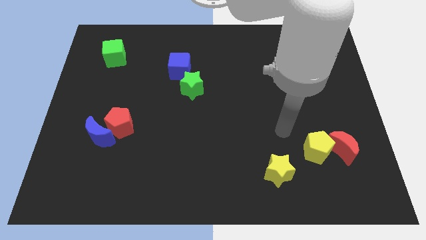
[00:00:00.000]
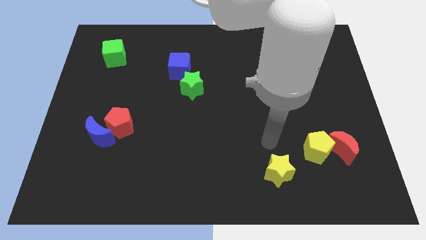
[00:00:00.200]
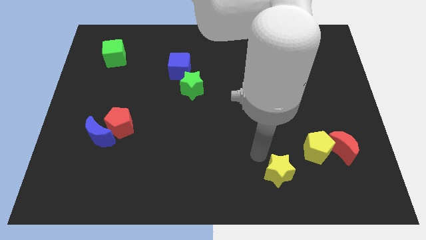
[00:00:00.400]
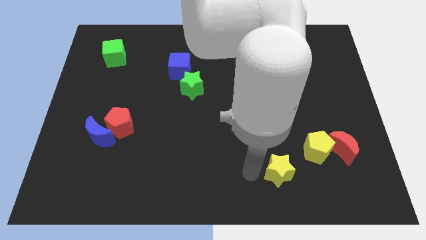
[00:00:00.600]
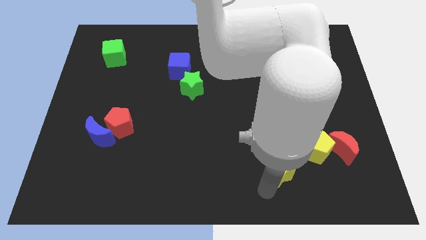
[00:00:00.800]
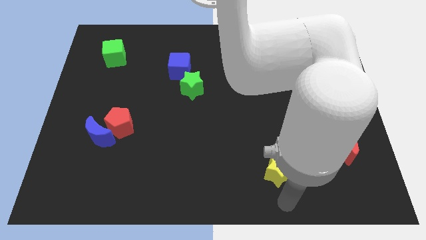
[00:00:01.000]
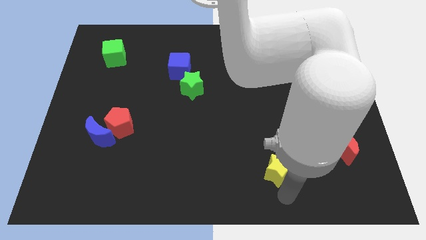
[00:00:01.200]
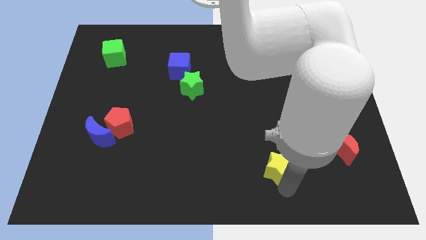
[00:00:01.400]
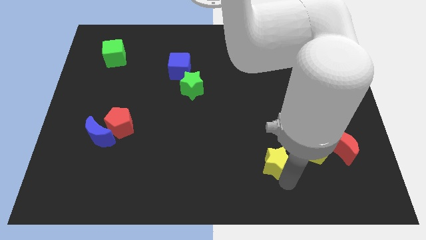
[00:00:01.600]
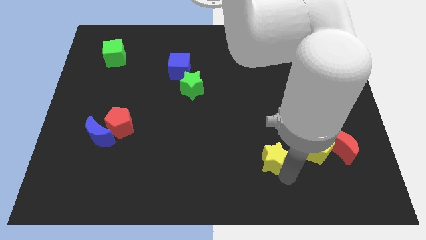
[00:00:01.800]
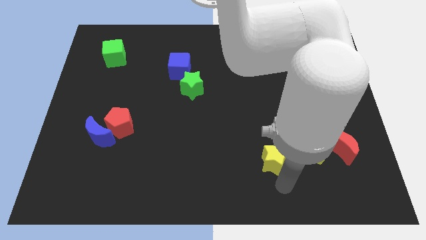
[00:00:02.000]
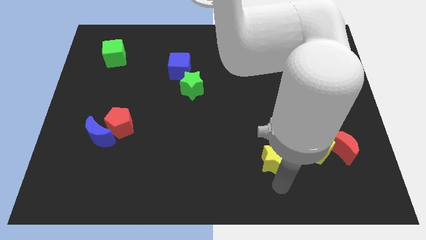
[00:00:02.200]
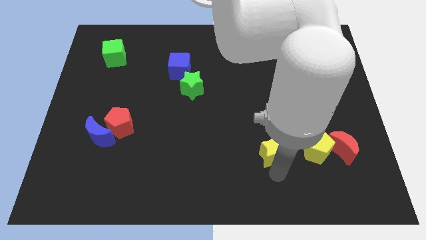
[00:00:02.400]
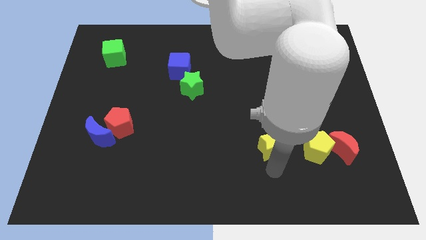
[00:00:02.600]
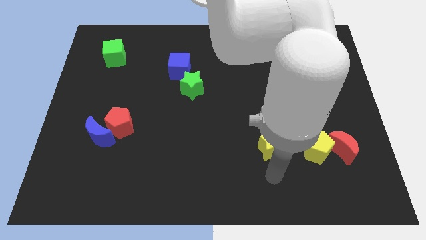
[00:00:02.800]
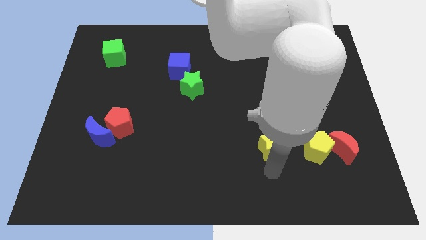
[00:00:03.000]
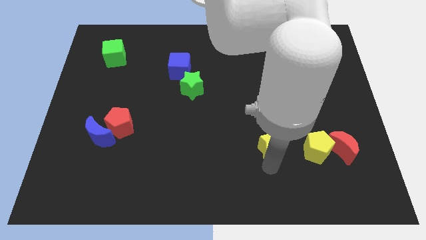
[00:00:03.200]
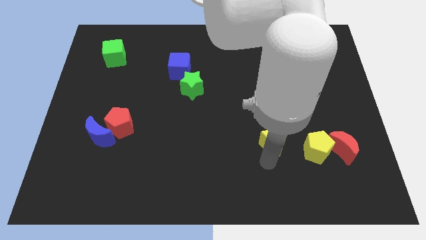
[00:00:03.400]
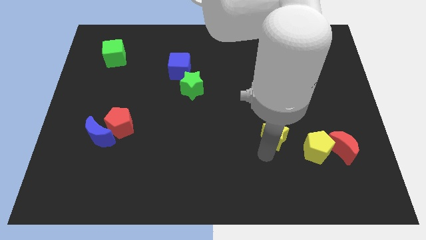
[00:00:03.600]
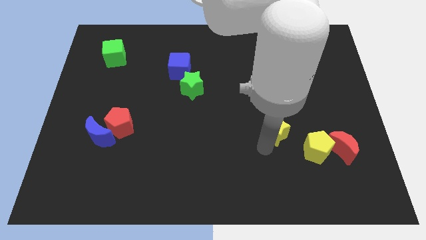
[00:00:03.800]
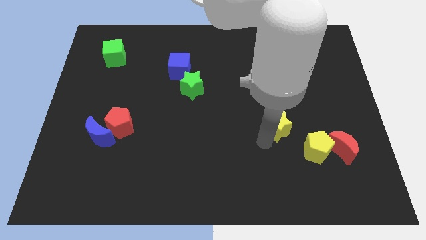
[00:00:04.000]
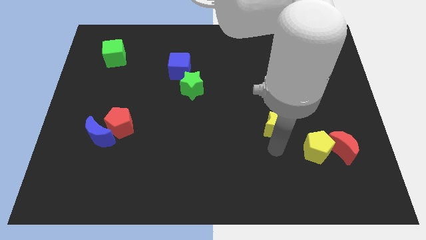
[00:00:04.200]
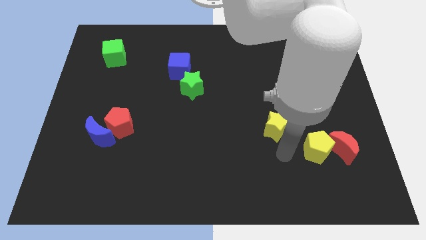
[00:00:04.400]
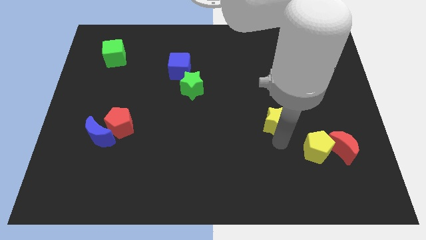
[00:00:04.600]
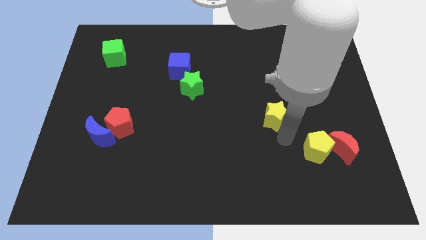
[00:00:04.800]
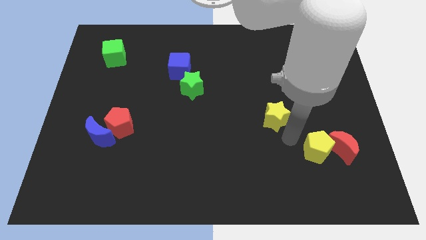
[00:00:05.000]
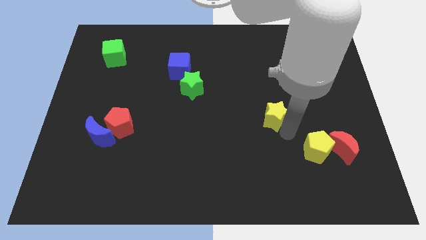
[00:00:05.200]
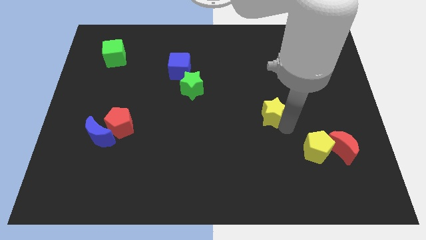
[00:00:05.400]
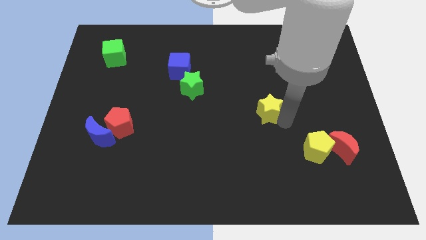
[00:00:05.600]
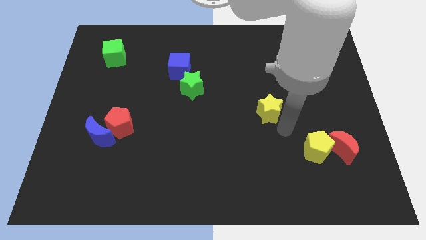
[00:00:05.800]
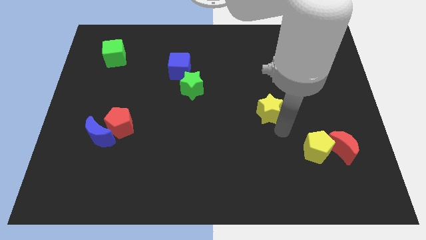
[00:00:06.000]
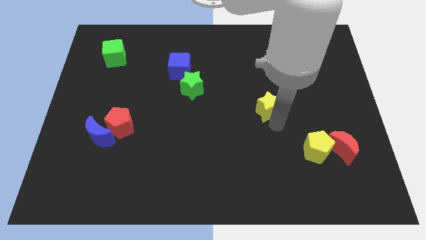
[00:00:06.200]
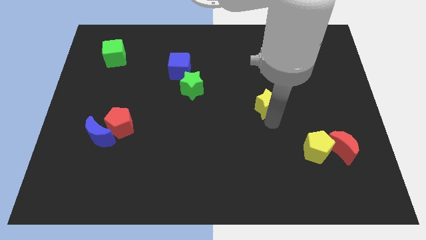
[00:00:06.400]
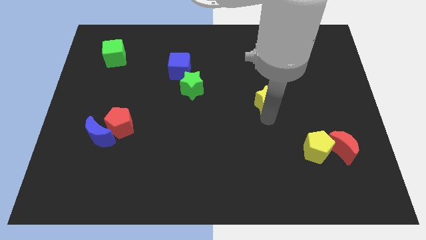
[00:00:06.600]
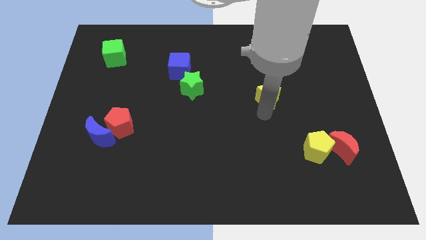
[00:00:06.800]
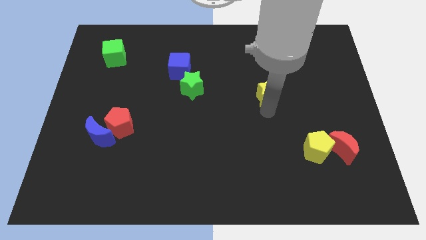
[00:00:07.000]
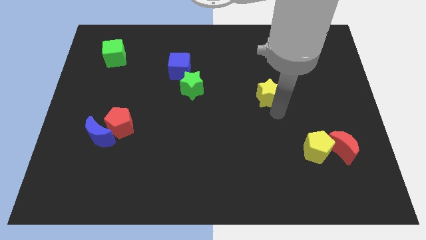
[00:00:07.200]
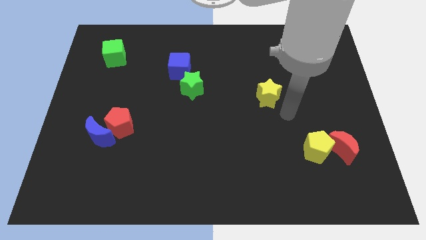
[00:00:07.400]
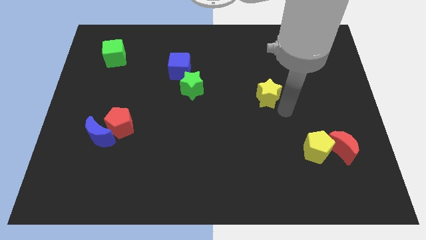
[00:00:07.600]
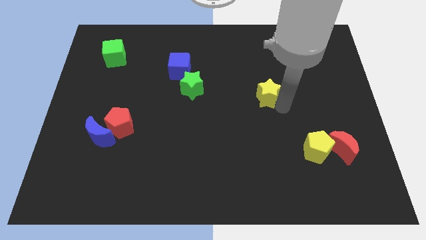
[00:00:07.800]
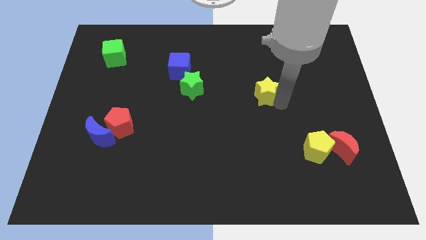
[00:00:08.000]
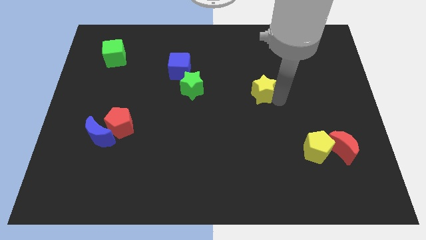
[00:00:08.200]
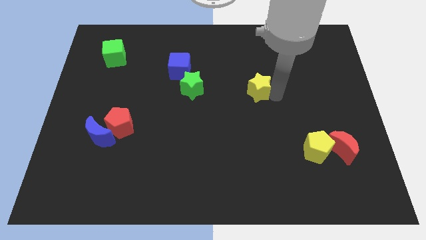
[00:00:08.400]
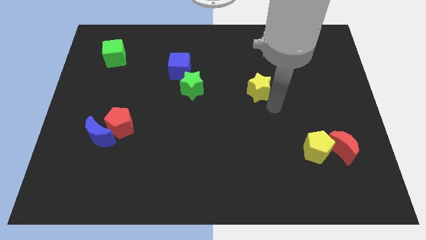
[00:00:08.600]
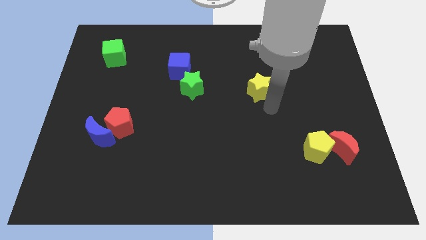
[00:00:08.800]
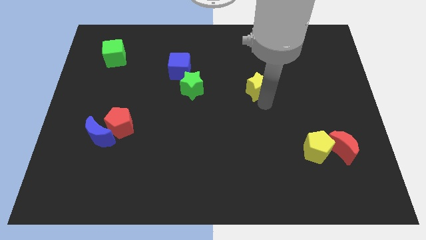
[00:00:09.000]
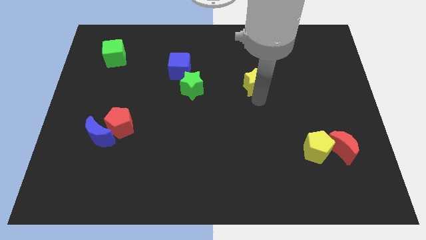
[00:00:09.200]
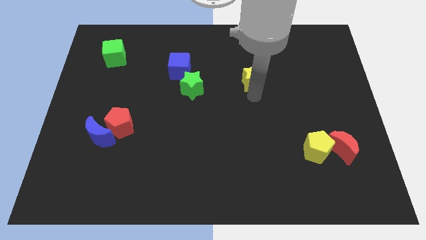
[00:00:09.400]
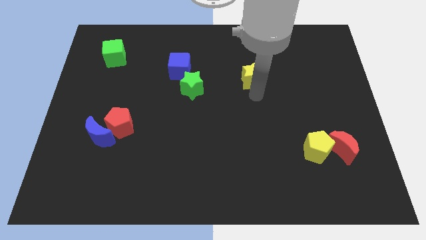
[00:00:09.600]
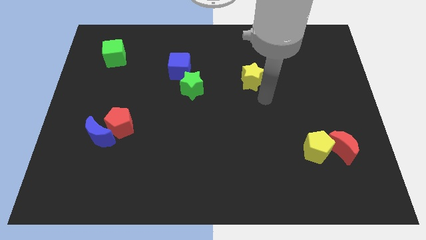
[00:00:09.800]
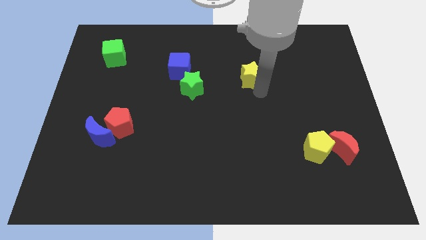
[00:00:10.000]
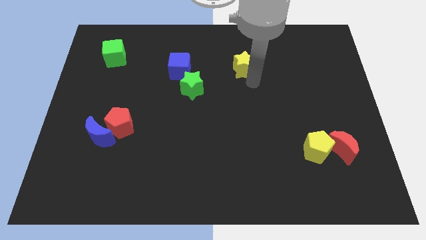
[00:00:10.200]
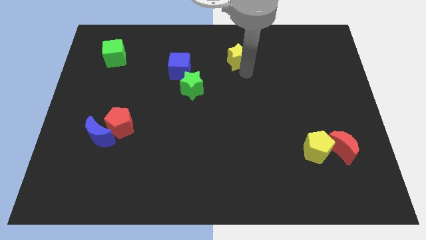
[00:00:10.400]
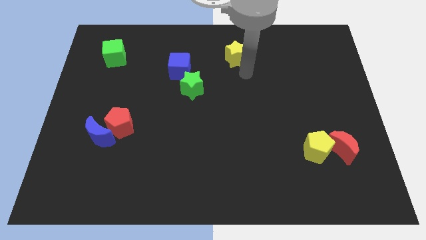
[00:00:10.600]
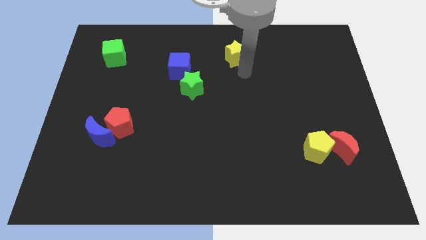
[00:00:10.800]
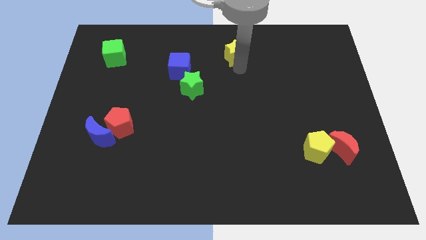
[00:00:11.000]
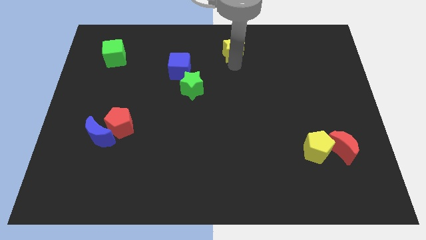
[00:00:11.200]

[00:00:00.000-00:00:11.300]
move the yellow star to the top
